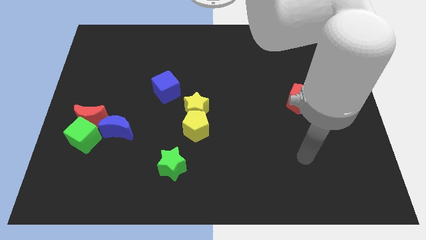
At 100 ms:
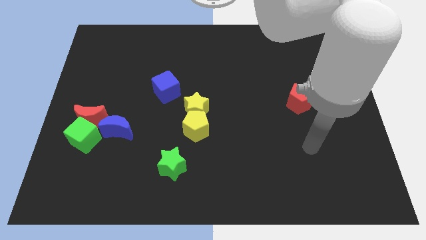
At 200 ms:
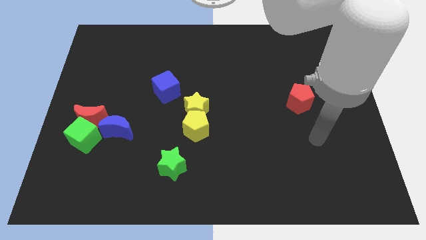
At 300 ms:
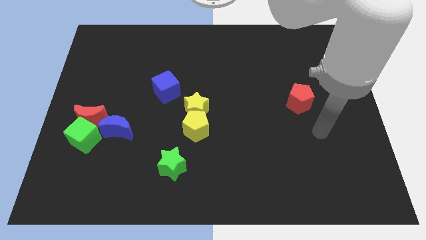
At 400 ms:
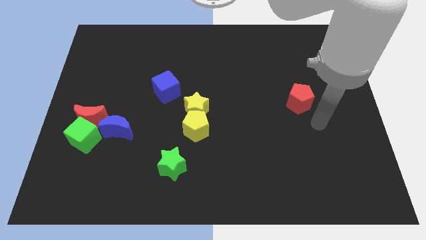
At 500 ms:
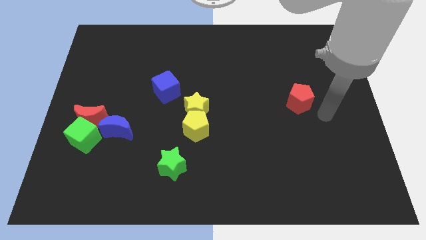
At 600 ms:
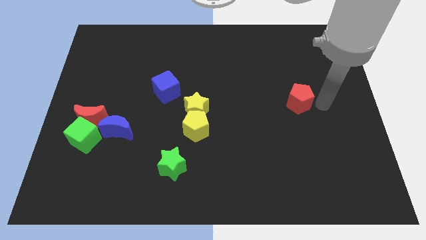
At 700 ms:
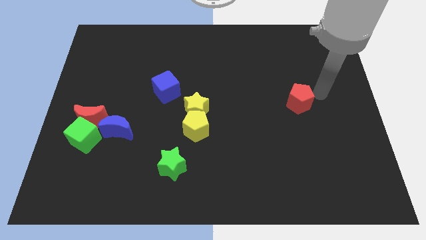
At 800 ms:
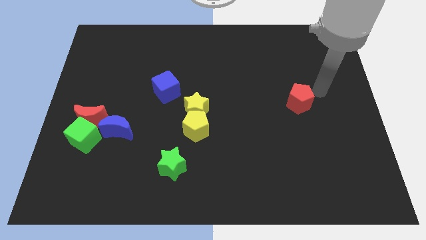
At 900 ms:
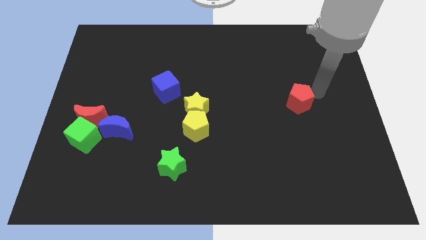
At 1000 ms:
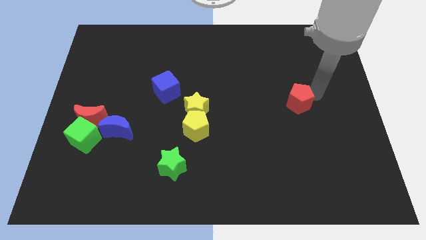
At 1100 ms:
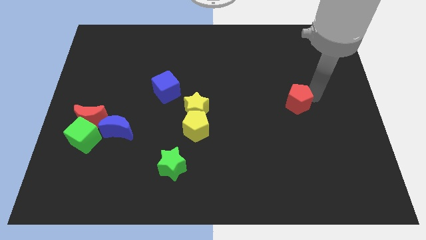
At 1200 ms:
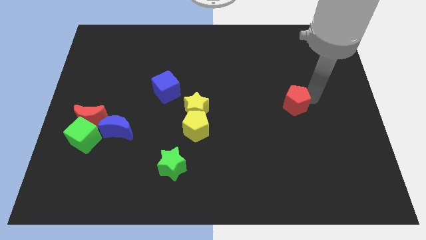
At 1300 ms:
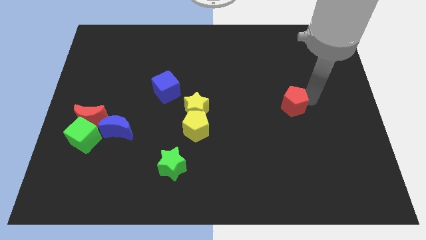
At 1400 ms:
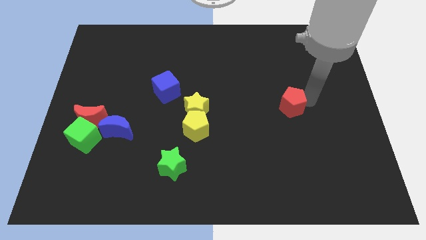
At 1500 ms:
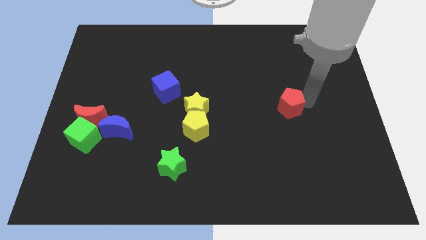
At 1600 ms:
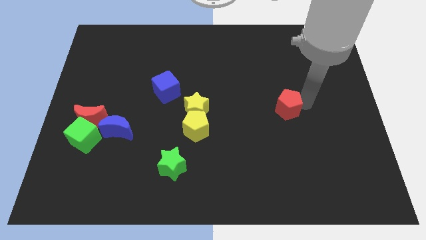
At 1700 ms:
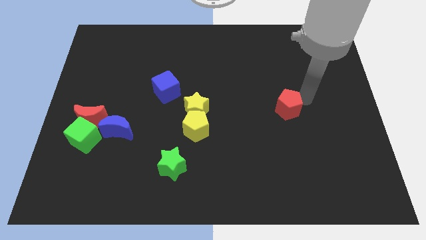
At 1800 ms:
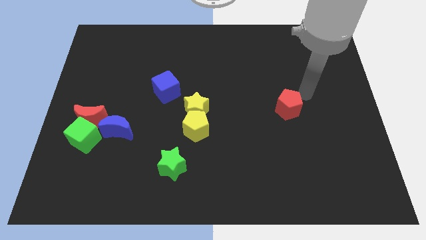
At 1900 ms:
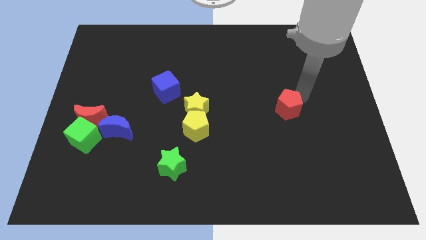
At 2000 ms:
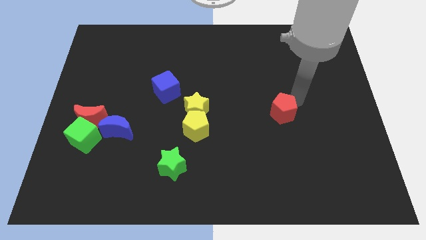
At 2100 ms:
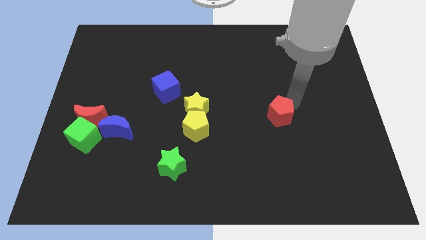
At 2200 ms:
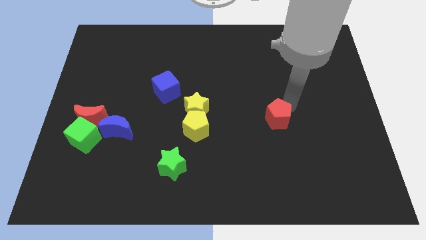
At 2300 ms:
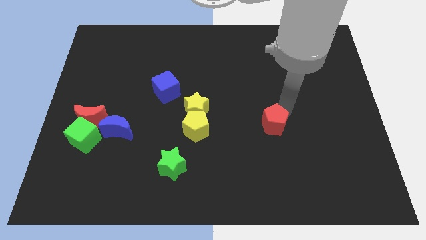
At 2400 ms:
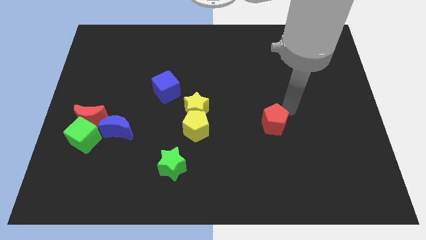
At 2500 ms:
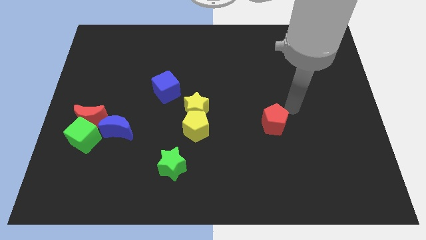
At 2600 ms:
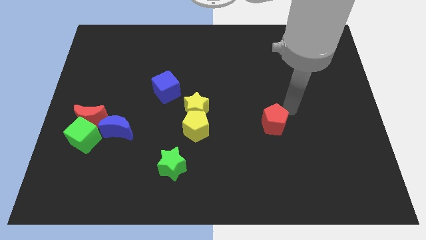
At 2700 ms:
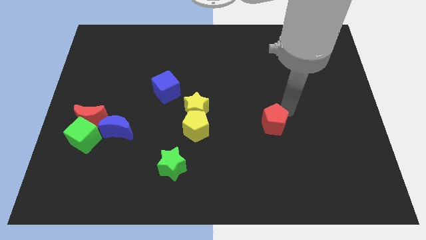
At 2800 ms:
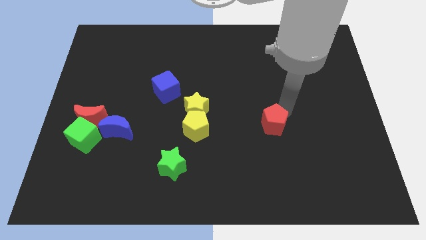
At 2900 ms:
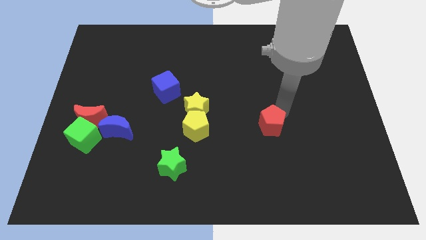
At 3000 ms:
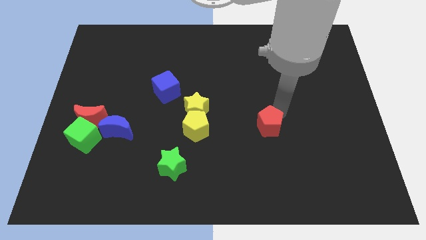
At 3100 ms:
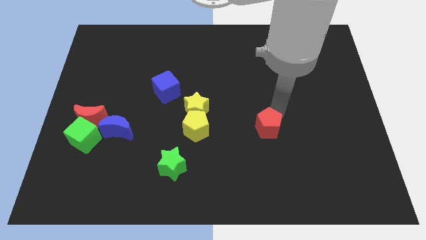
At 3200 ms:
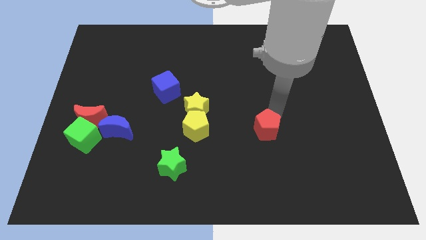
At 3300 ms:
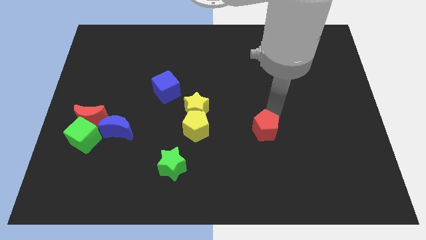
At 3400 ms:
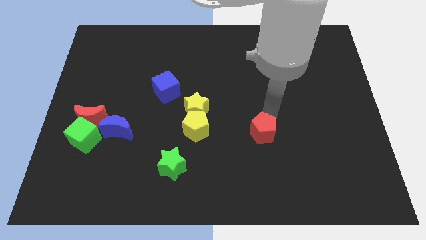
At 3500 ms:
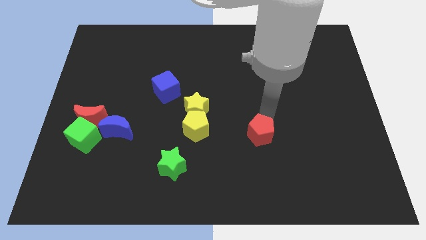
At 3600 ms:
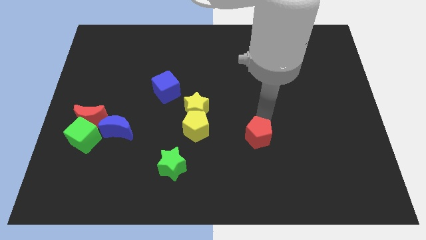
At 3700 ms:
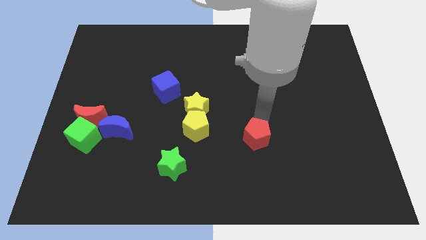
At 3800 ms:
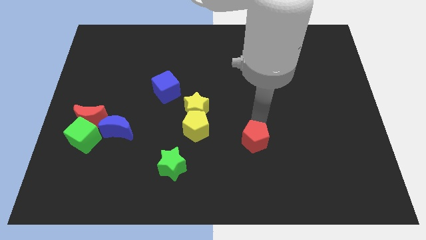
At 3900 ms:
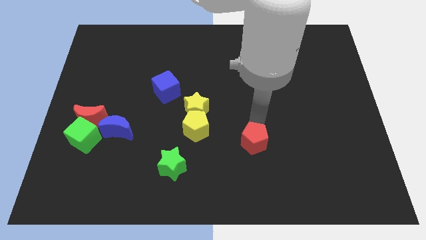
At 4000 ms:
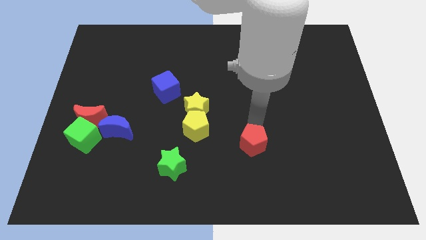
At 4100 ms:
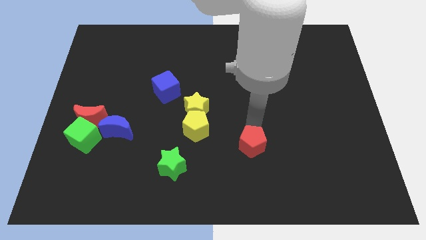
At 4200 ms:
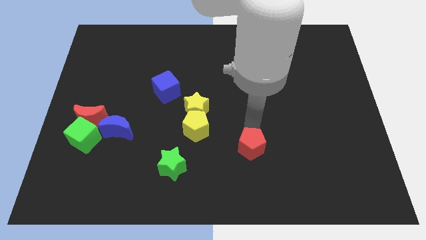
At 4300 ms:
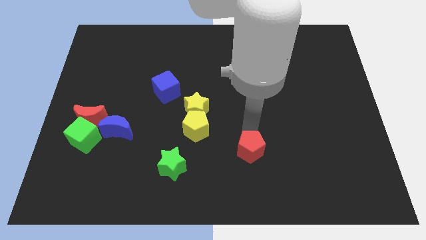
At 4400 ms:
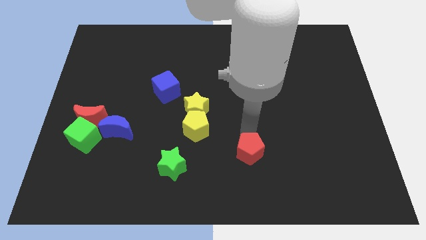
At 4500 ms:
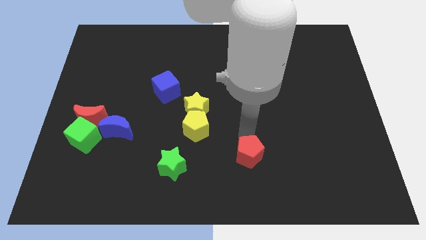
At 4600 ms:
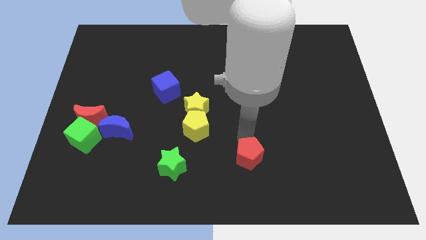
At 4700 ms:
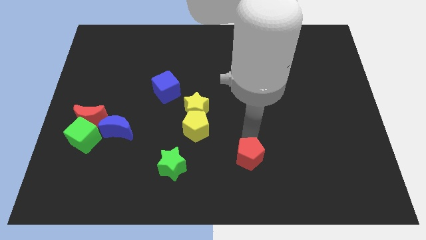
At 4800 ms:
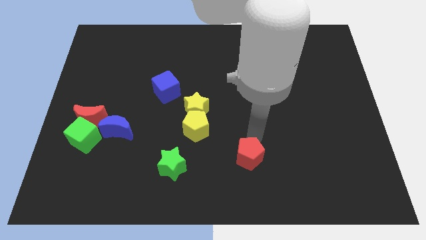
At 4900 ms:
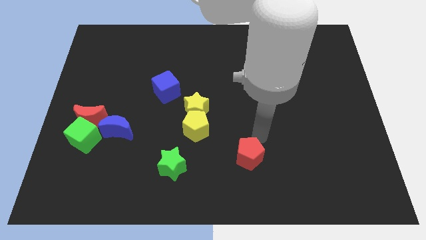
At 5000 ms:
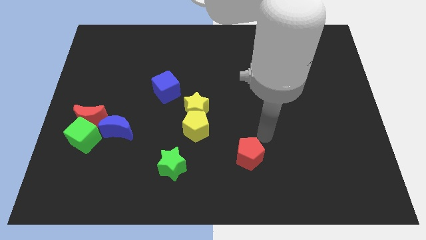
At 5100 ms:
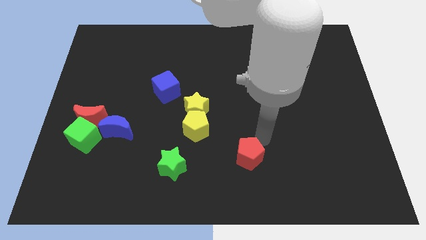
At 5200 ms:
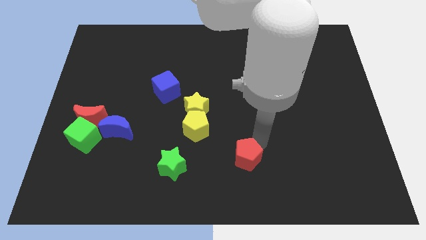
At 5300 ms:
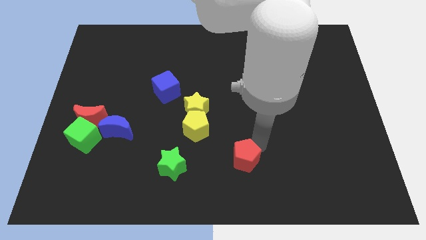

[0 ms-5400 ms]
slide the red pentagon to the bottom side
